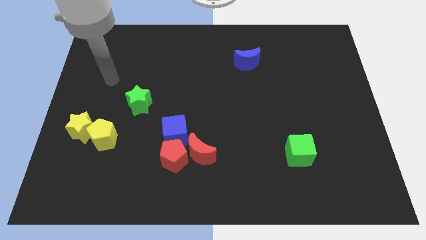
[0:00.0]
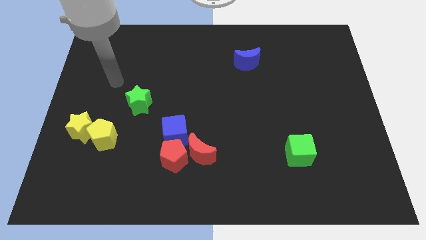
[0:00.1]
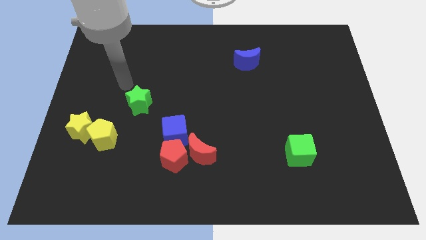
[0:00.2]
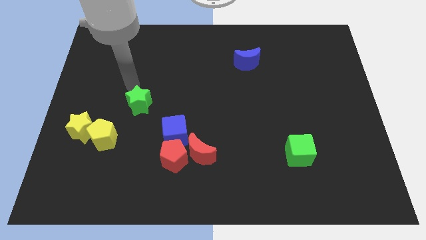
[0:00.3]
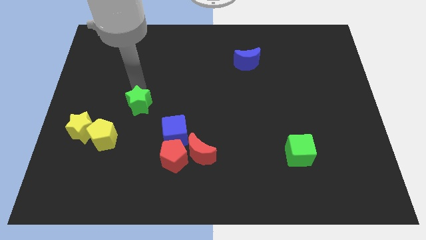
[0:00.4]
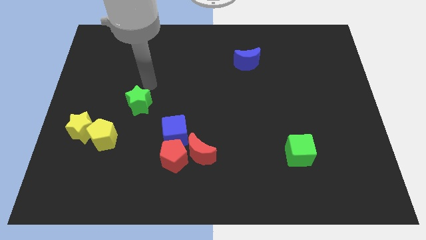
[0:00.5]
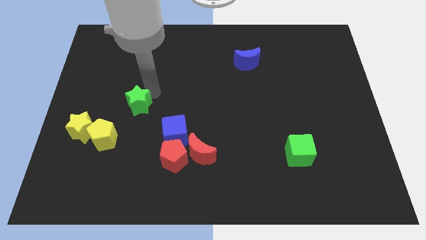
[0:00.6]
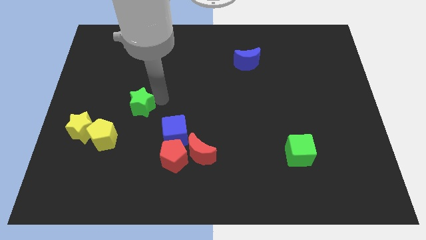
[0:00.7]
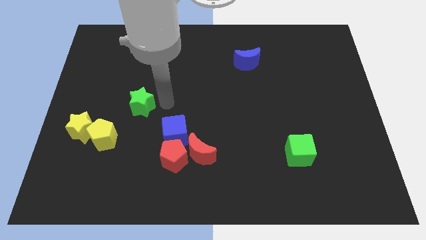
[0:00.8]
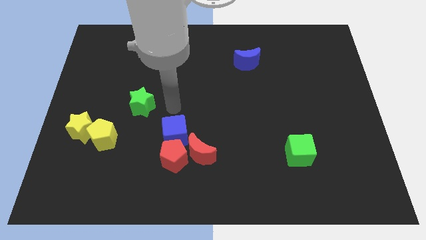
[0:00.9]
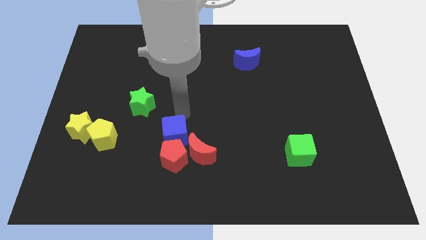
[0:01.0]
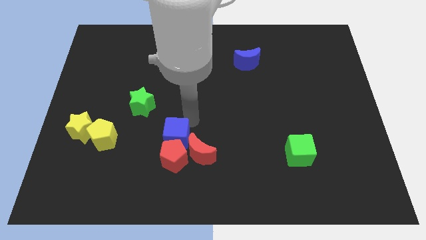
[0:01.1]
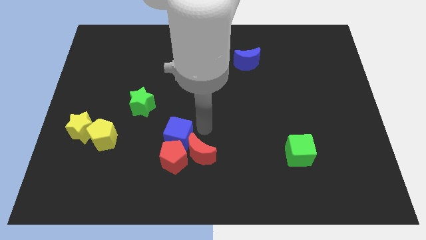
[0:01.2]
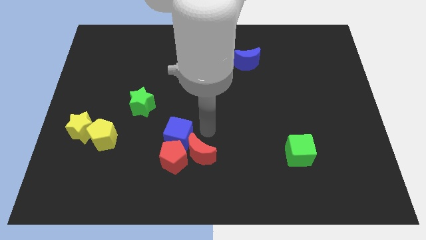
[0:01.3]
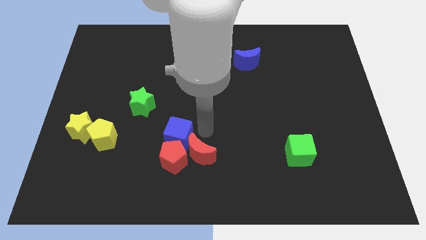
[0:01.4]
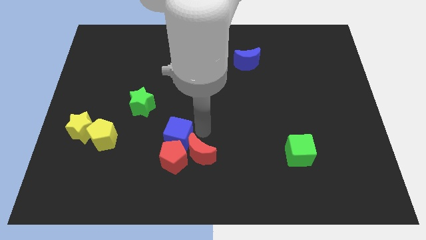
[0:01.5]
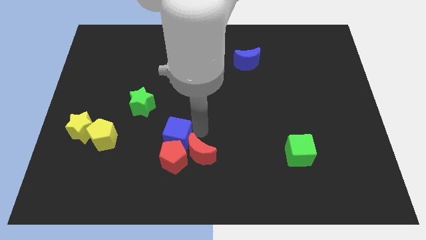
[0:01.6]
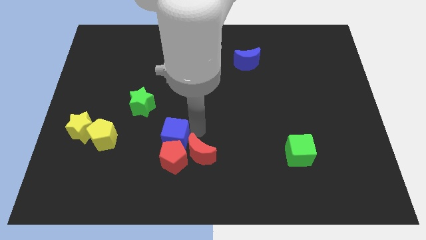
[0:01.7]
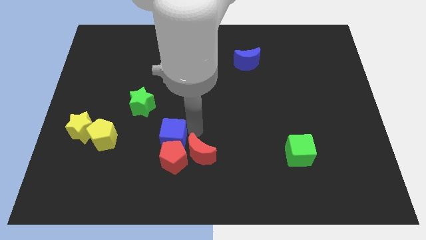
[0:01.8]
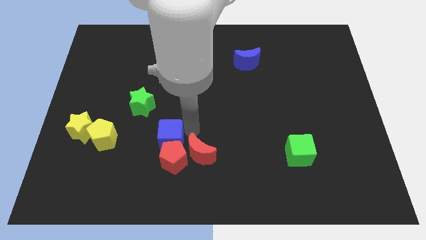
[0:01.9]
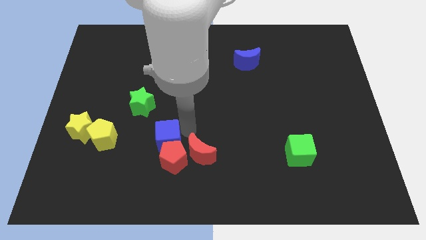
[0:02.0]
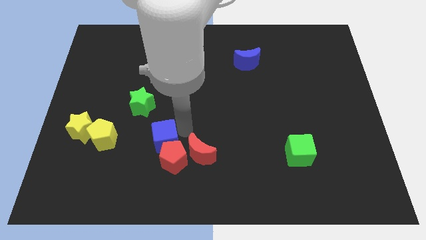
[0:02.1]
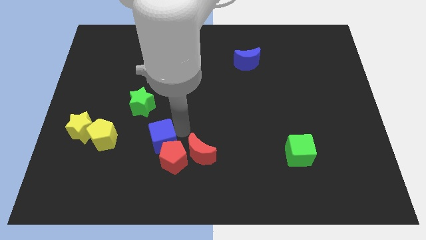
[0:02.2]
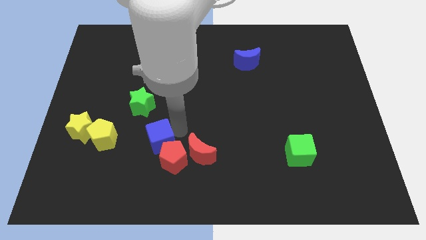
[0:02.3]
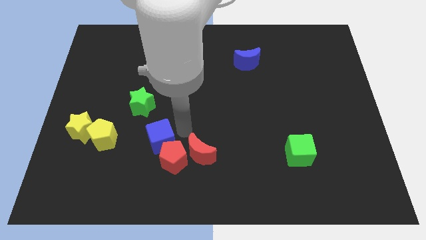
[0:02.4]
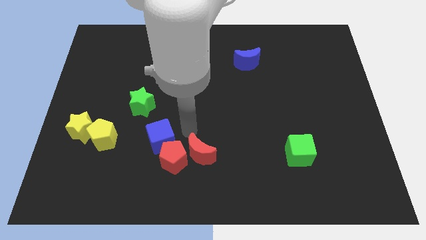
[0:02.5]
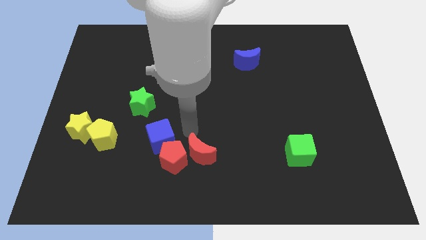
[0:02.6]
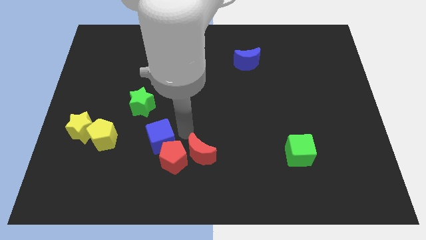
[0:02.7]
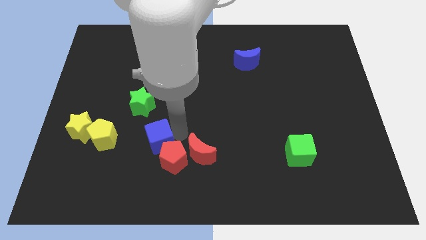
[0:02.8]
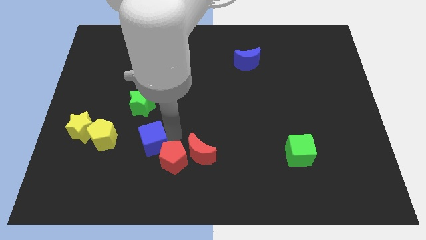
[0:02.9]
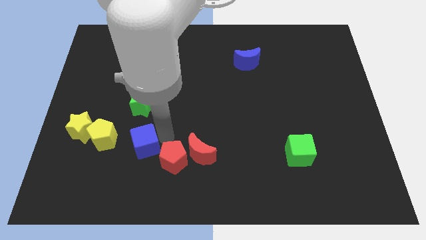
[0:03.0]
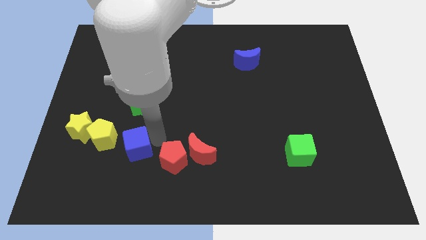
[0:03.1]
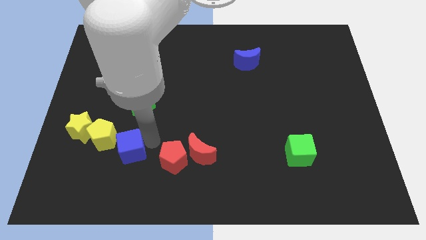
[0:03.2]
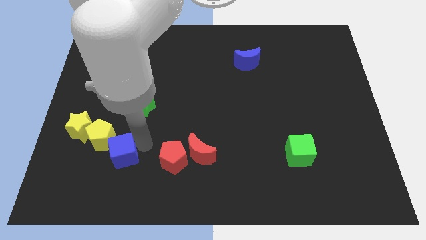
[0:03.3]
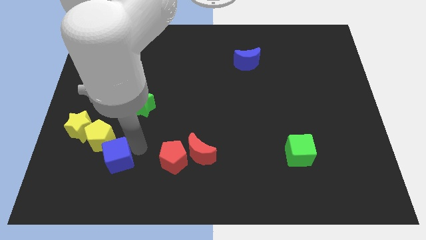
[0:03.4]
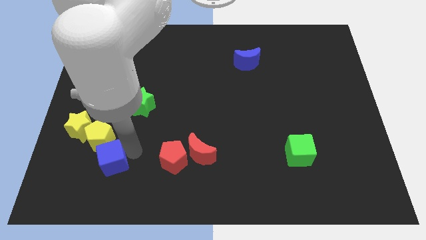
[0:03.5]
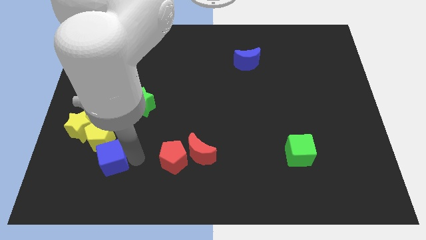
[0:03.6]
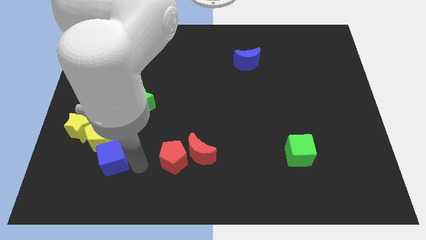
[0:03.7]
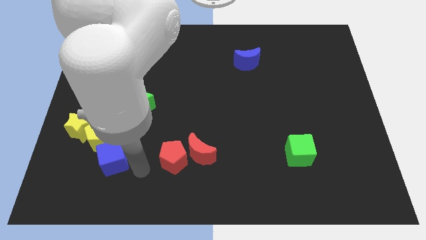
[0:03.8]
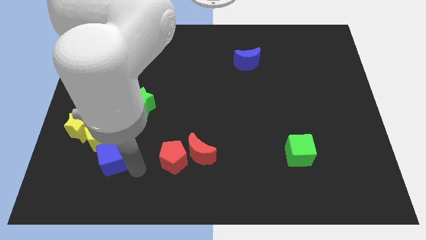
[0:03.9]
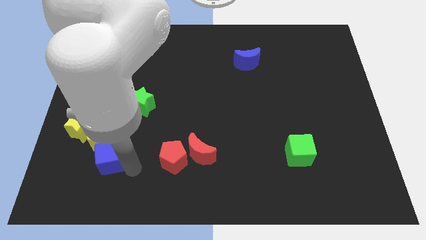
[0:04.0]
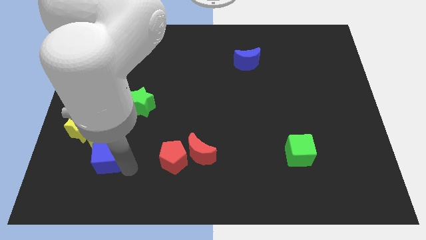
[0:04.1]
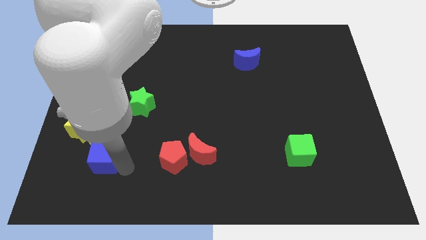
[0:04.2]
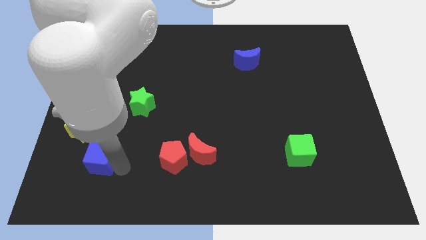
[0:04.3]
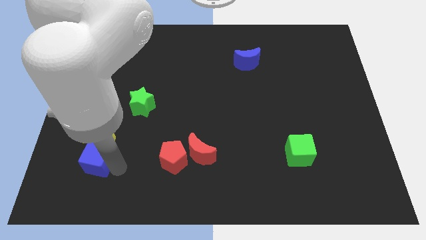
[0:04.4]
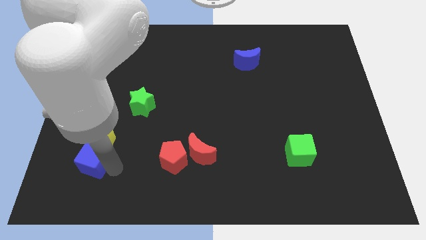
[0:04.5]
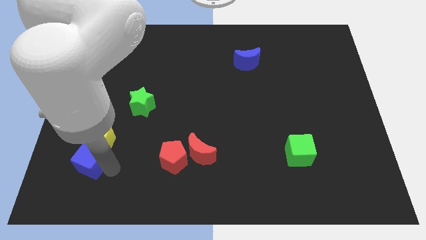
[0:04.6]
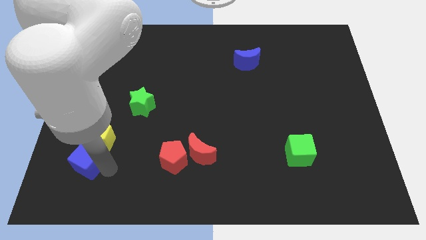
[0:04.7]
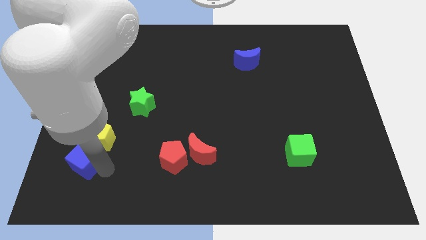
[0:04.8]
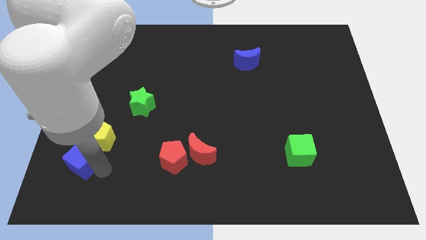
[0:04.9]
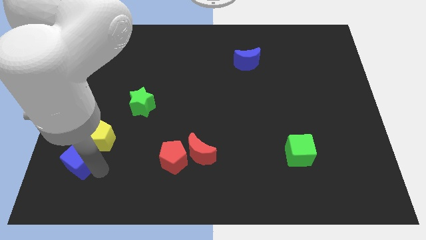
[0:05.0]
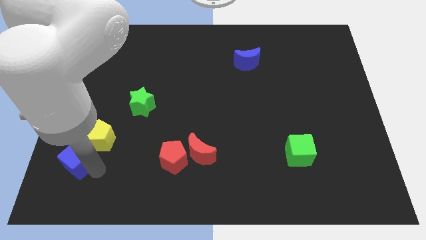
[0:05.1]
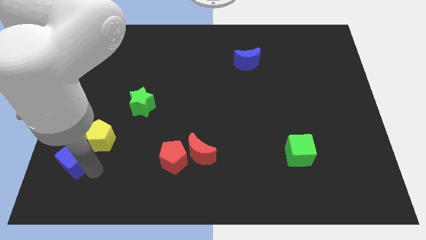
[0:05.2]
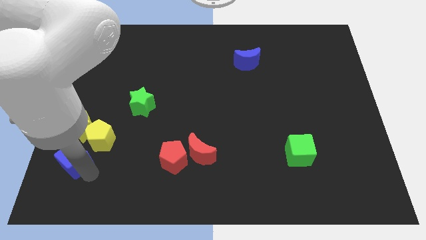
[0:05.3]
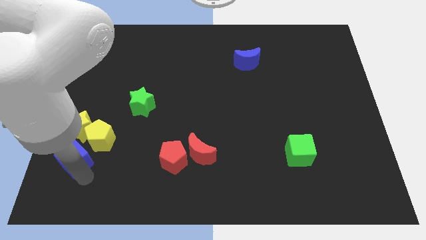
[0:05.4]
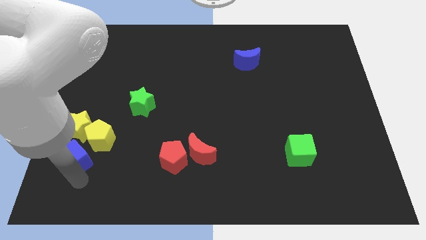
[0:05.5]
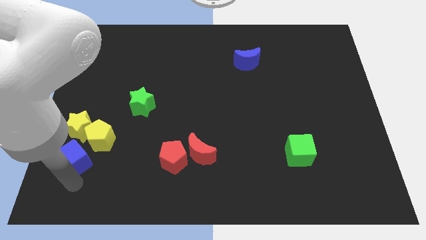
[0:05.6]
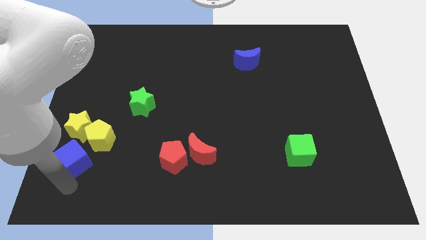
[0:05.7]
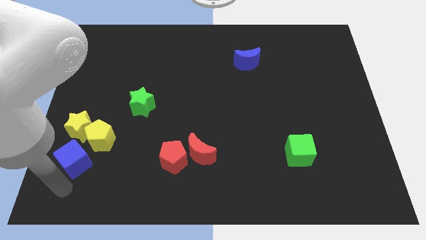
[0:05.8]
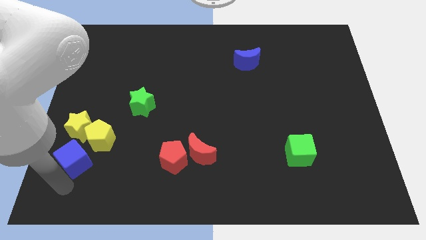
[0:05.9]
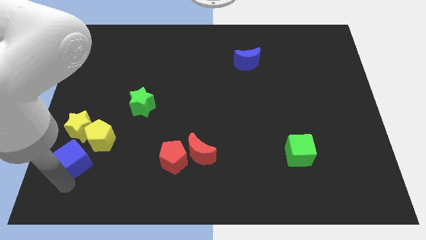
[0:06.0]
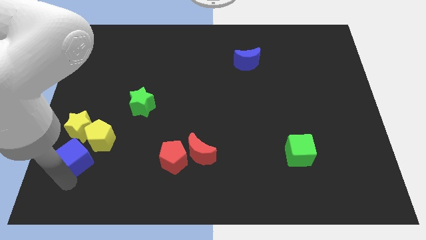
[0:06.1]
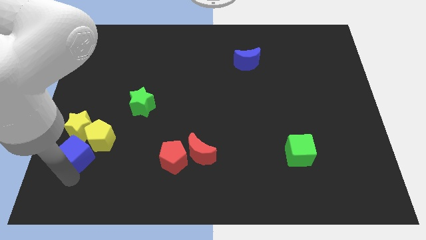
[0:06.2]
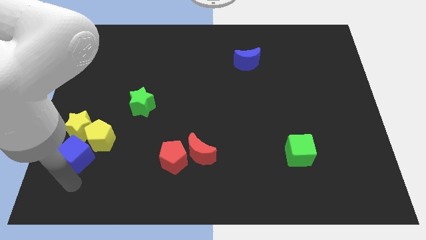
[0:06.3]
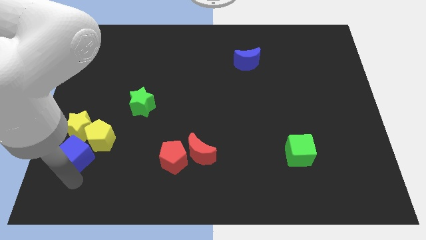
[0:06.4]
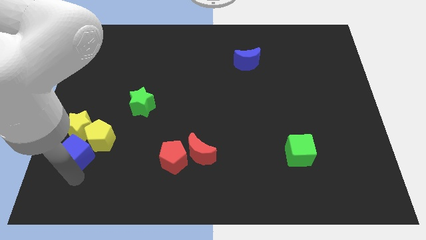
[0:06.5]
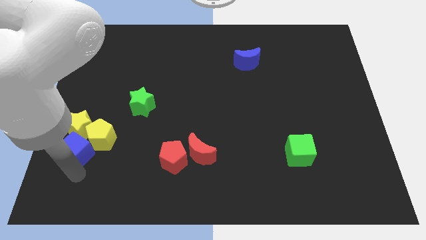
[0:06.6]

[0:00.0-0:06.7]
push the blue cube towards the yellow star

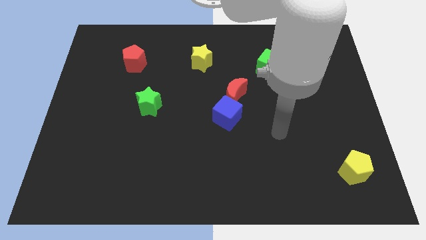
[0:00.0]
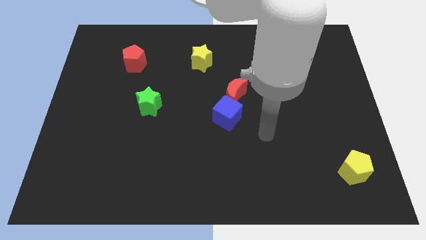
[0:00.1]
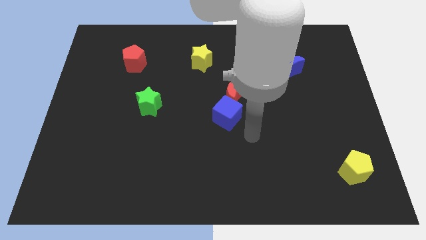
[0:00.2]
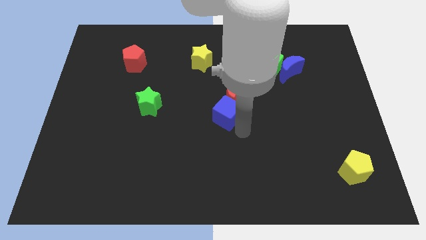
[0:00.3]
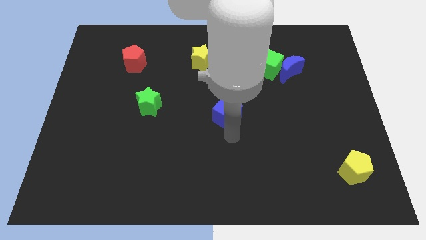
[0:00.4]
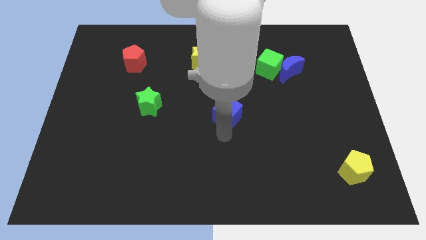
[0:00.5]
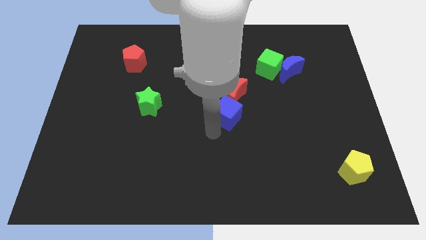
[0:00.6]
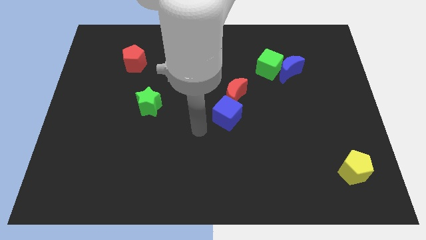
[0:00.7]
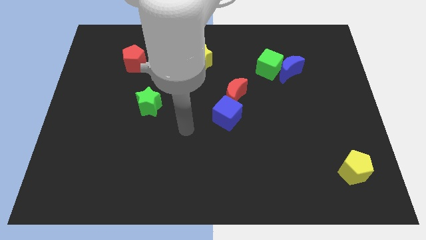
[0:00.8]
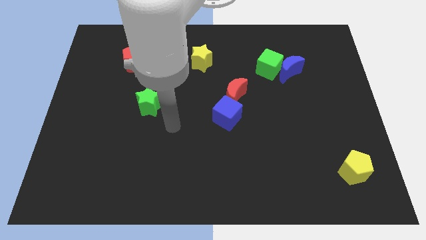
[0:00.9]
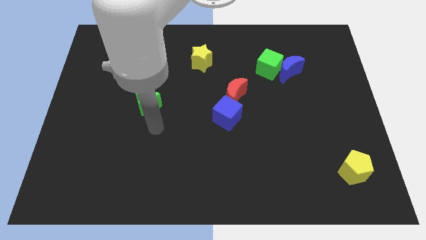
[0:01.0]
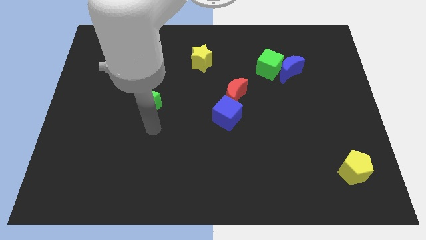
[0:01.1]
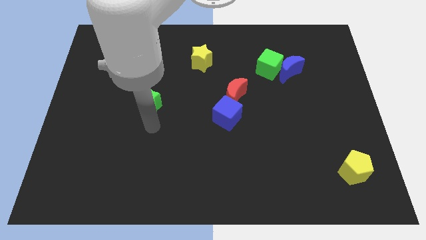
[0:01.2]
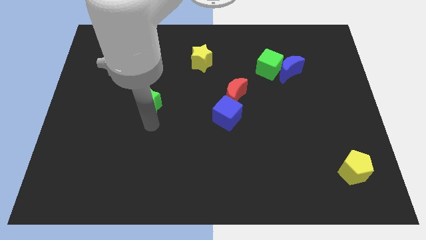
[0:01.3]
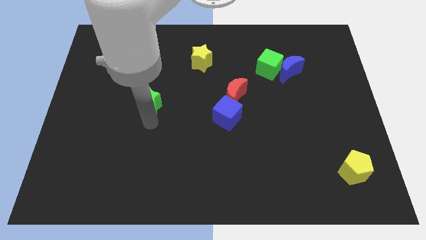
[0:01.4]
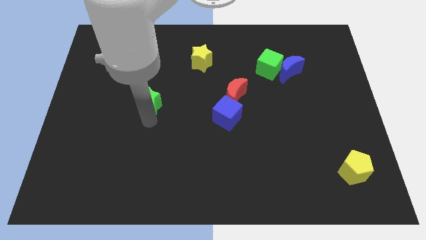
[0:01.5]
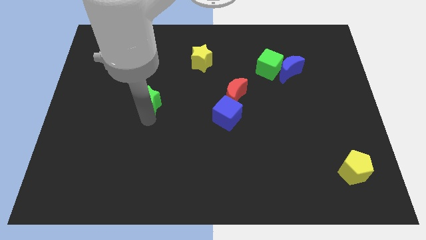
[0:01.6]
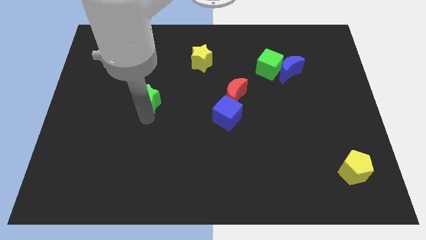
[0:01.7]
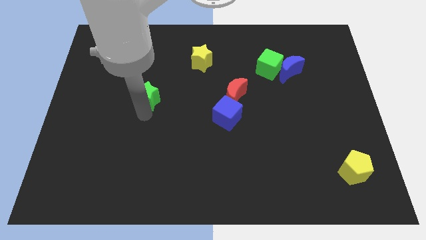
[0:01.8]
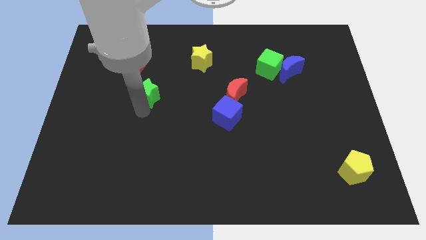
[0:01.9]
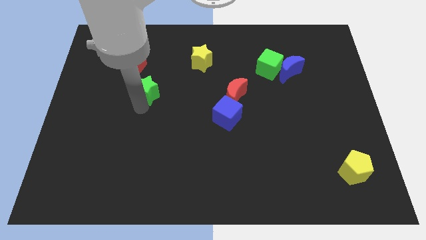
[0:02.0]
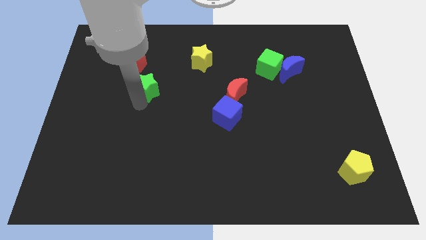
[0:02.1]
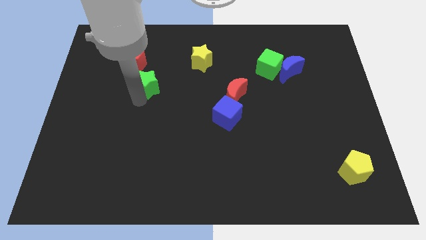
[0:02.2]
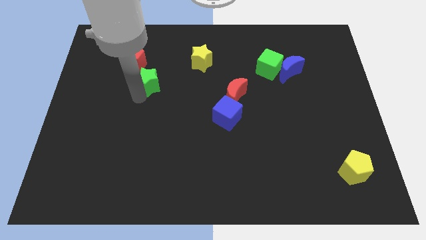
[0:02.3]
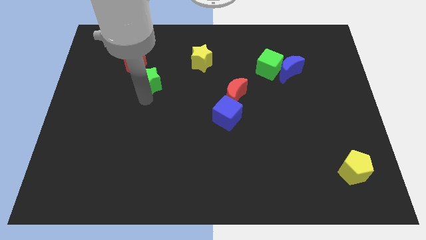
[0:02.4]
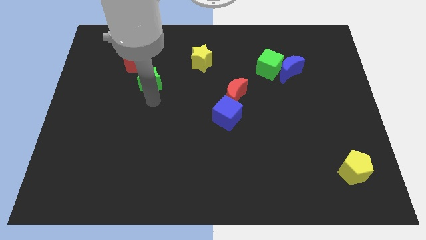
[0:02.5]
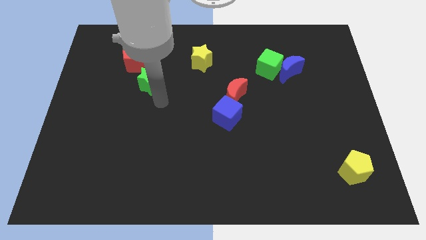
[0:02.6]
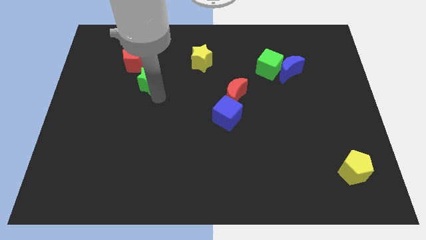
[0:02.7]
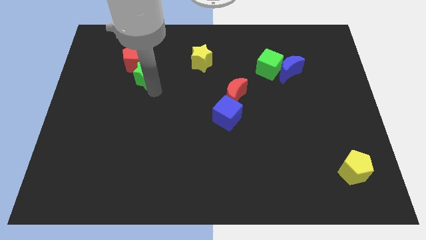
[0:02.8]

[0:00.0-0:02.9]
slide the green star close to the red pentagon
